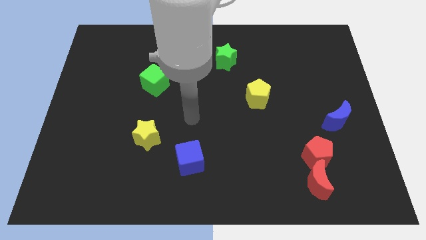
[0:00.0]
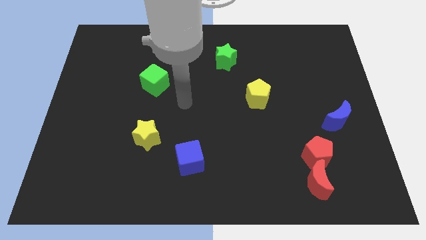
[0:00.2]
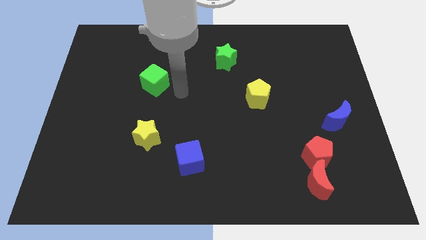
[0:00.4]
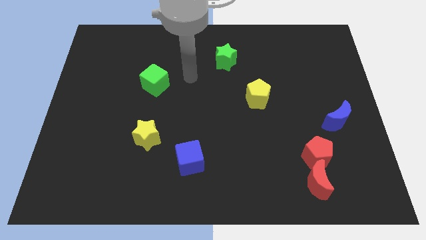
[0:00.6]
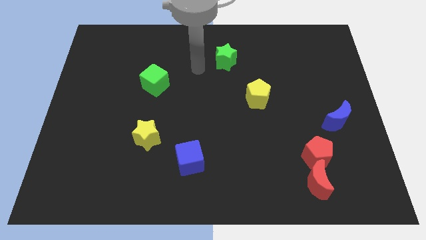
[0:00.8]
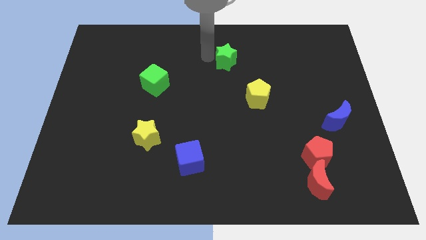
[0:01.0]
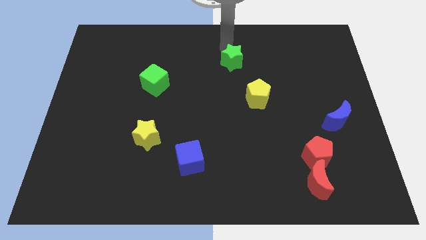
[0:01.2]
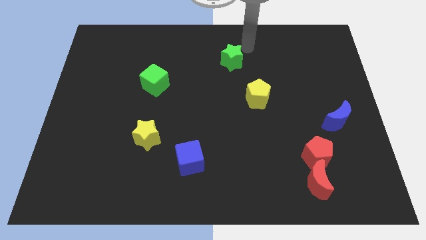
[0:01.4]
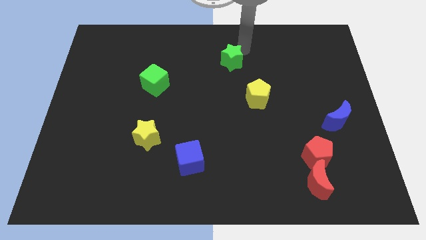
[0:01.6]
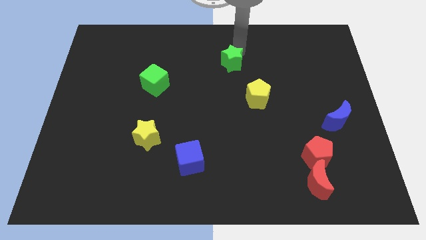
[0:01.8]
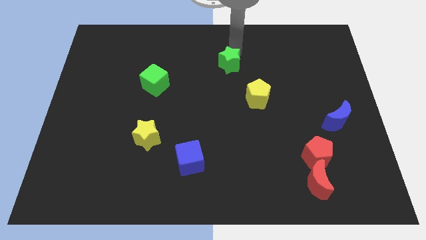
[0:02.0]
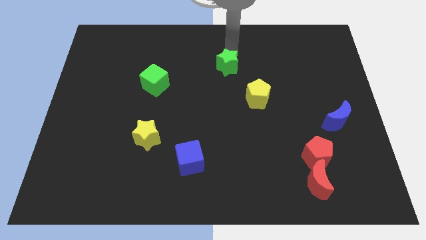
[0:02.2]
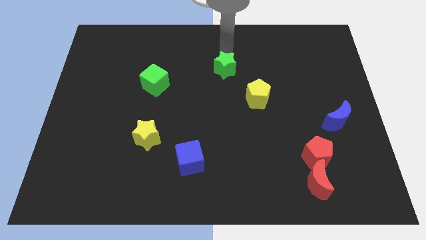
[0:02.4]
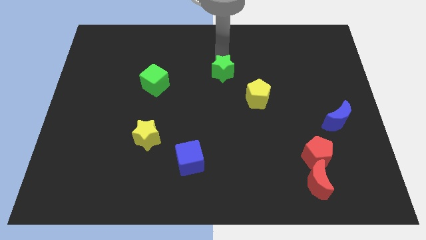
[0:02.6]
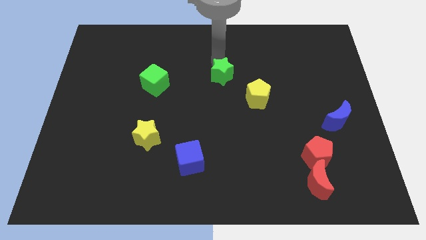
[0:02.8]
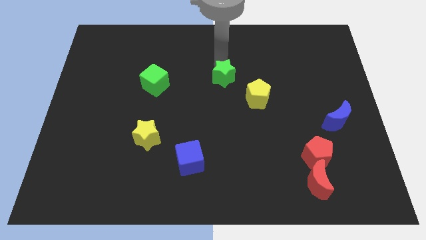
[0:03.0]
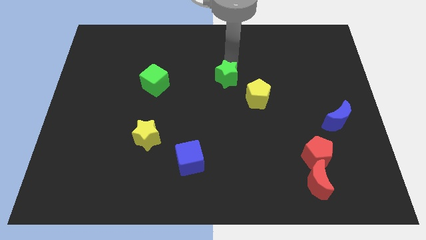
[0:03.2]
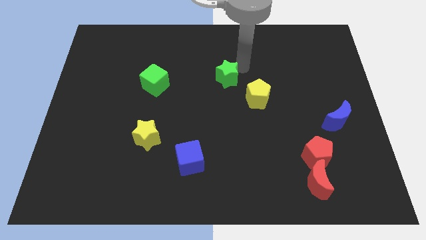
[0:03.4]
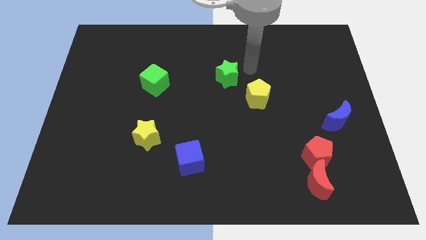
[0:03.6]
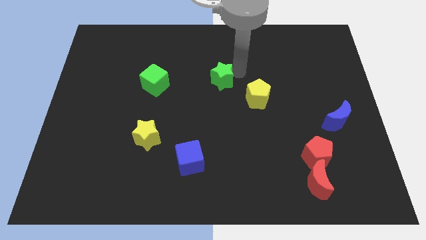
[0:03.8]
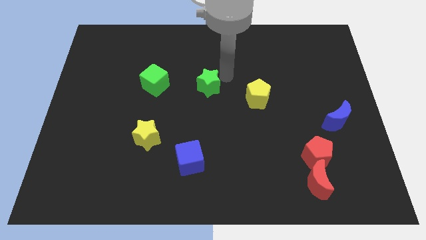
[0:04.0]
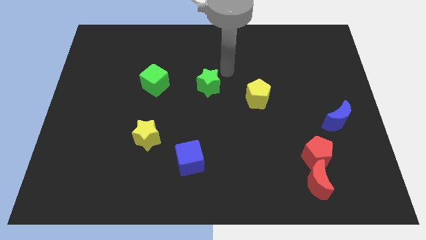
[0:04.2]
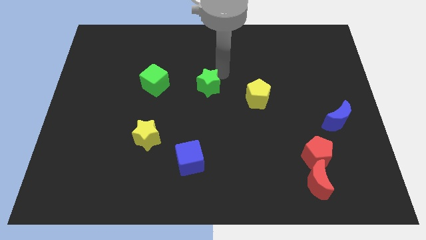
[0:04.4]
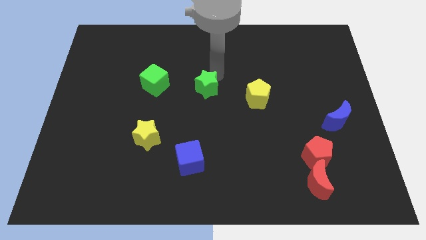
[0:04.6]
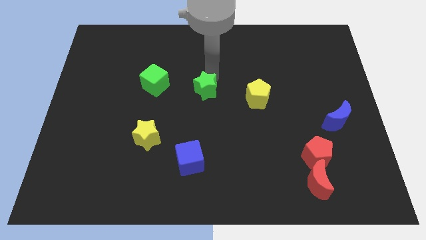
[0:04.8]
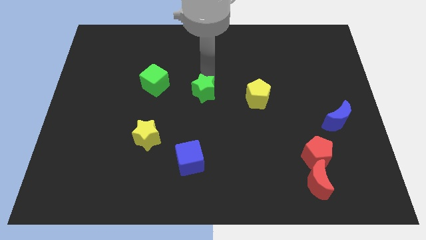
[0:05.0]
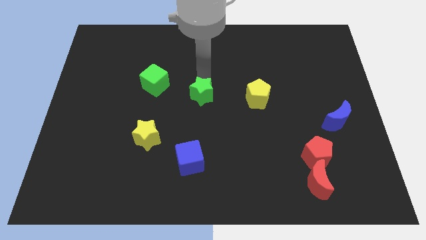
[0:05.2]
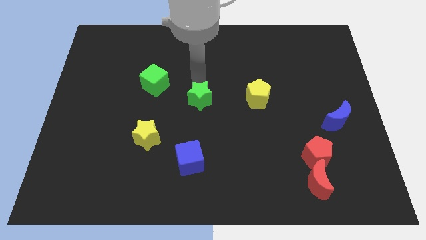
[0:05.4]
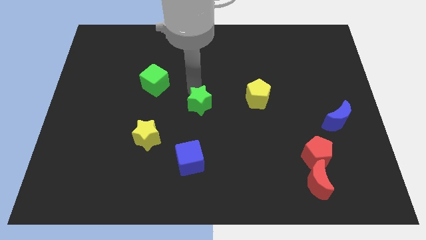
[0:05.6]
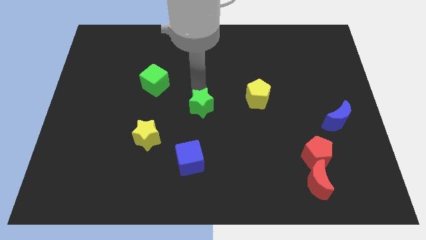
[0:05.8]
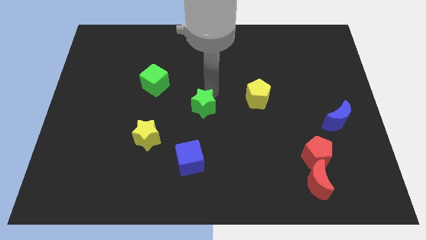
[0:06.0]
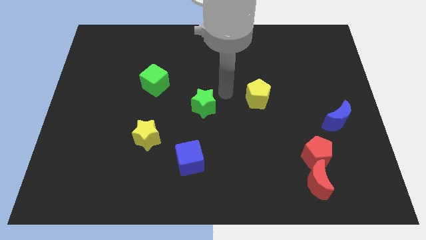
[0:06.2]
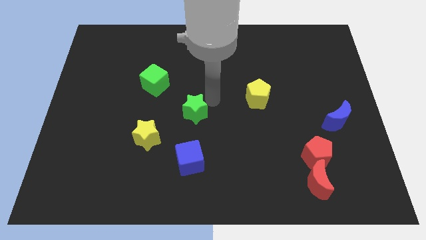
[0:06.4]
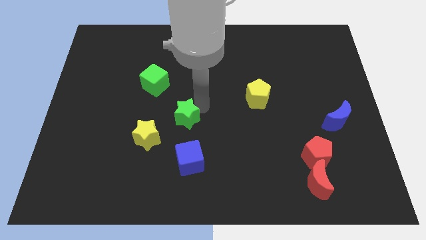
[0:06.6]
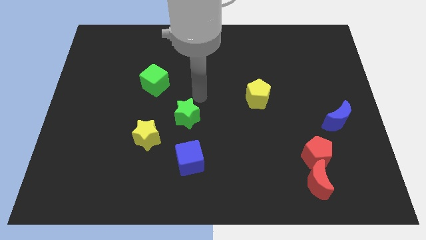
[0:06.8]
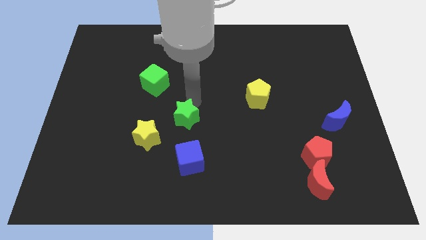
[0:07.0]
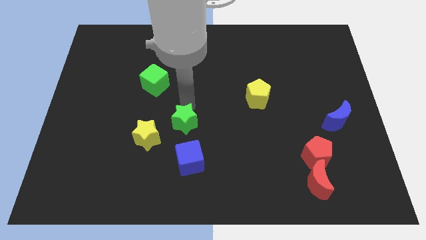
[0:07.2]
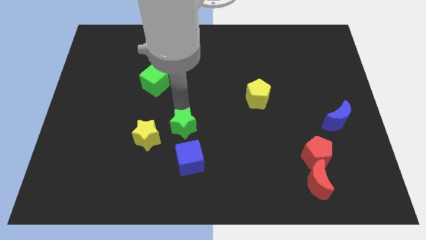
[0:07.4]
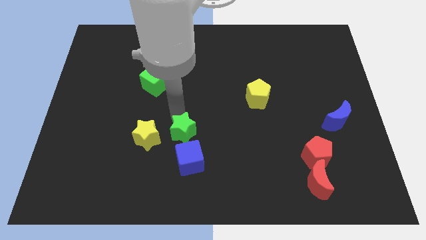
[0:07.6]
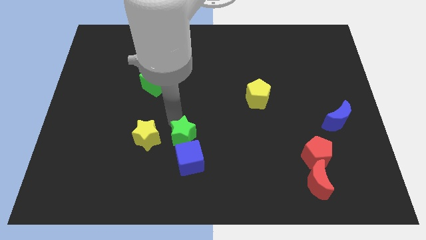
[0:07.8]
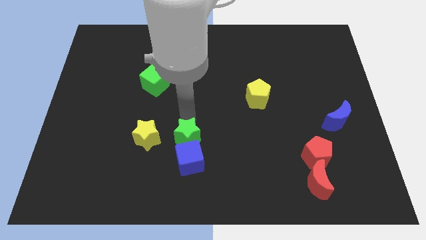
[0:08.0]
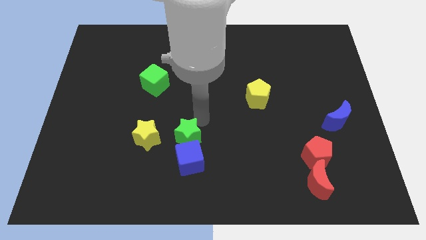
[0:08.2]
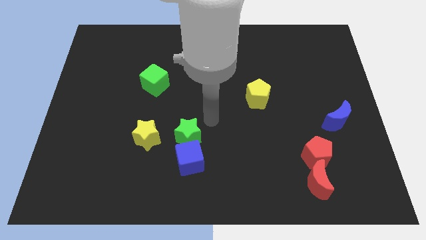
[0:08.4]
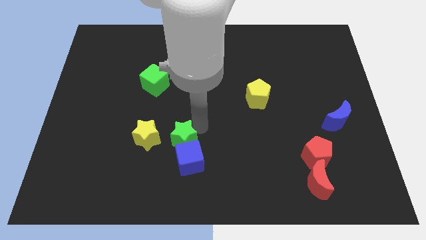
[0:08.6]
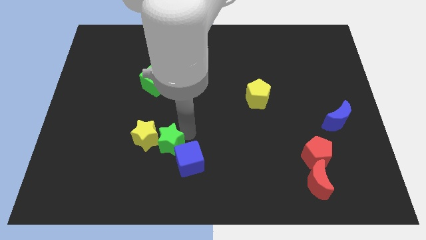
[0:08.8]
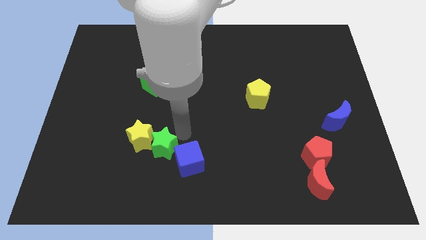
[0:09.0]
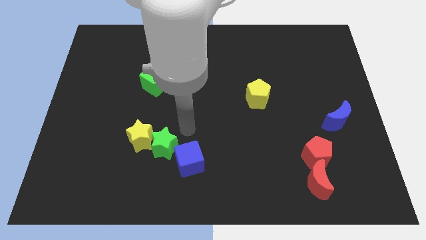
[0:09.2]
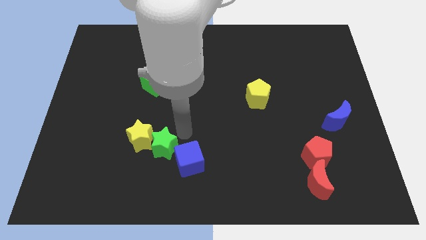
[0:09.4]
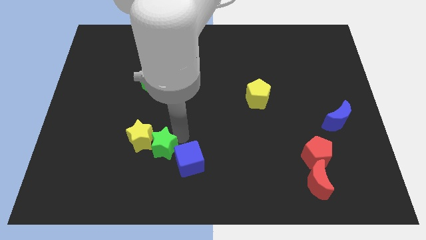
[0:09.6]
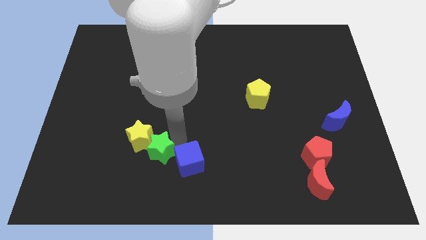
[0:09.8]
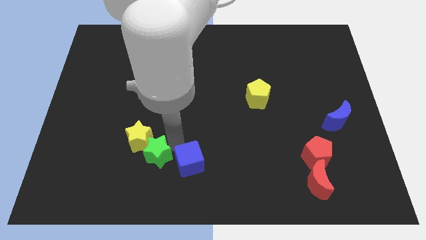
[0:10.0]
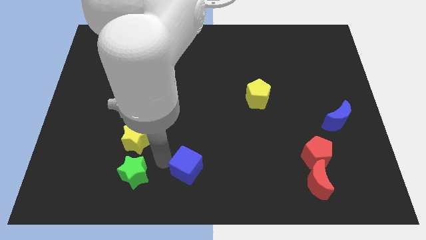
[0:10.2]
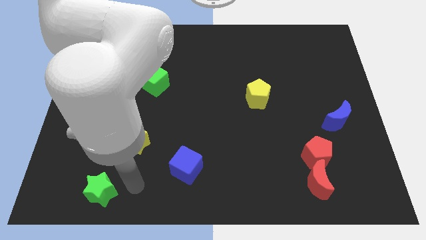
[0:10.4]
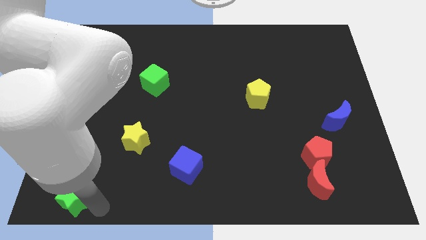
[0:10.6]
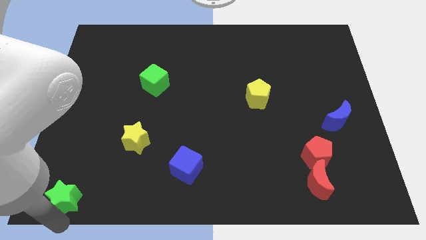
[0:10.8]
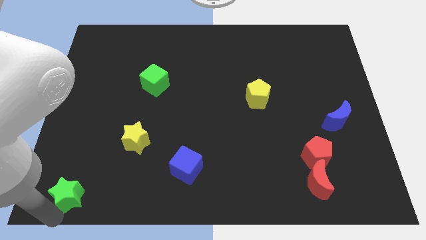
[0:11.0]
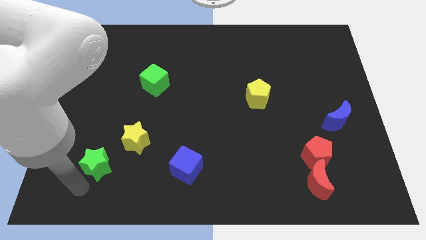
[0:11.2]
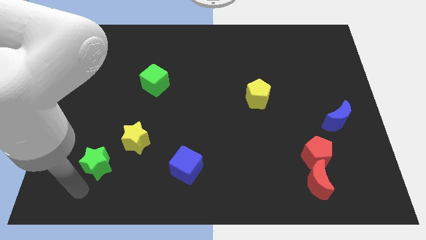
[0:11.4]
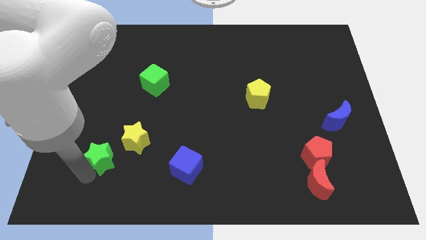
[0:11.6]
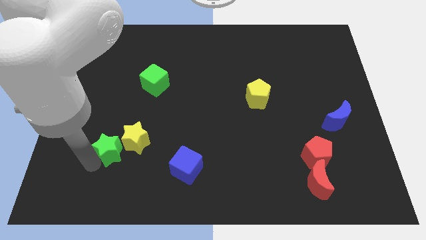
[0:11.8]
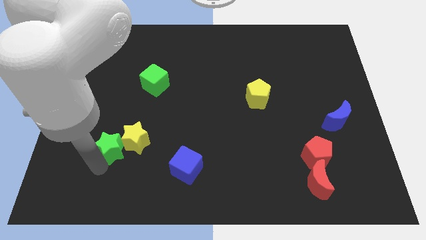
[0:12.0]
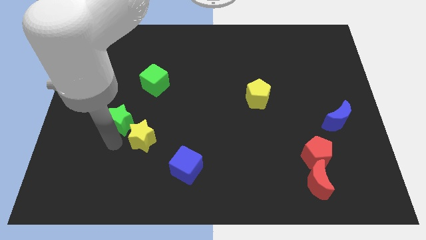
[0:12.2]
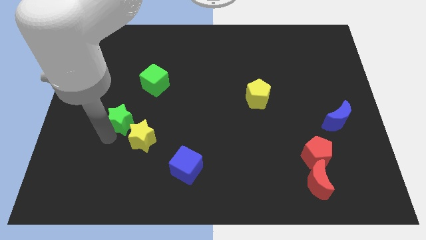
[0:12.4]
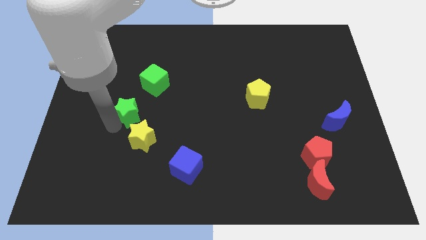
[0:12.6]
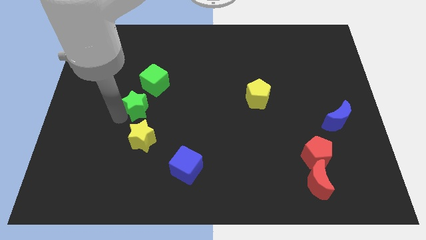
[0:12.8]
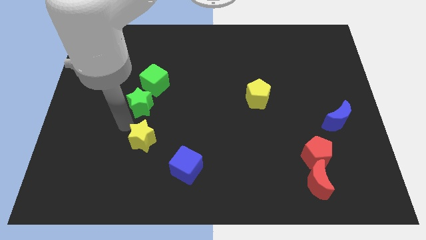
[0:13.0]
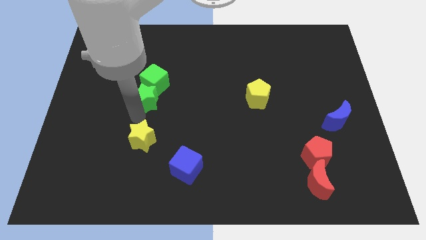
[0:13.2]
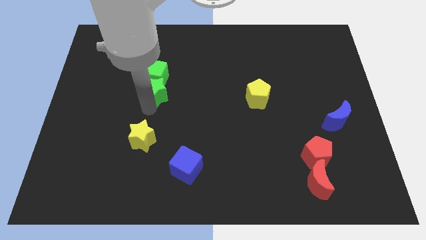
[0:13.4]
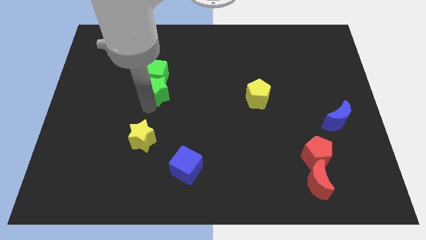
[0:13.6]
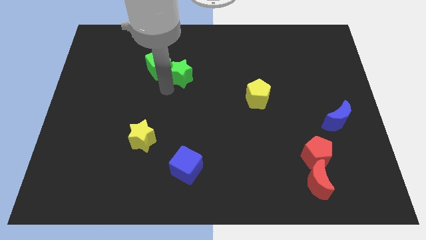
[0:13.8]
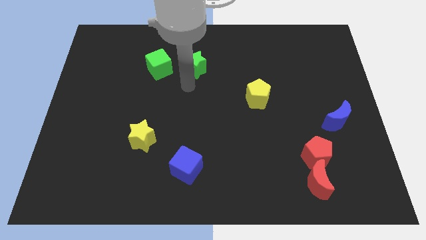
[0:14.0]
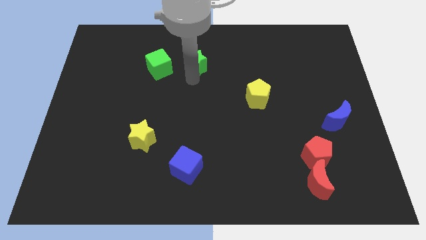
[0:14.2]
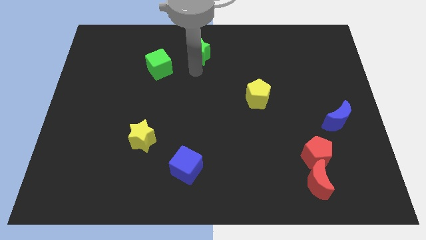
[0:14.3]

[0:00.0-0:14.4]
put the green star to the towards your base

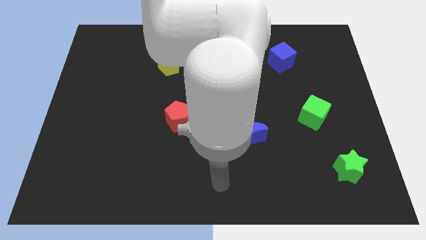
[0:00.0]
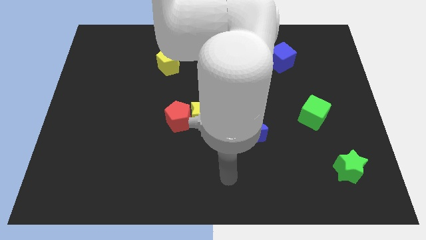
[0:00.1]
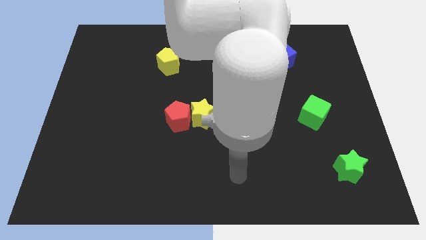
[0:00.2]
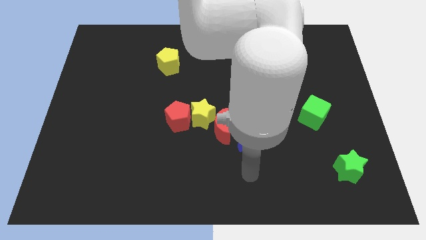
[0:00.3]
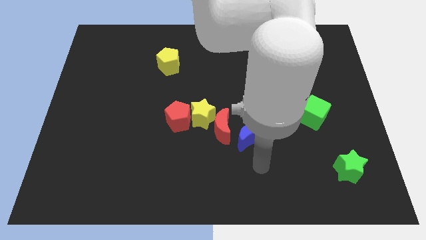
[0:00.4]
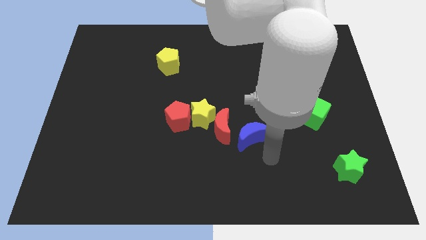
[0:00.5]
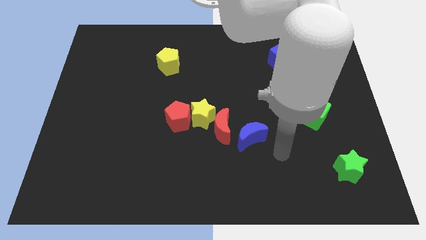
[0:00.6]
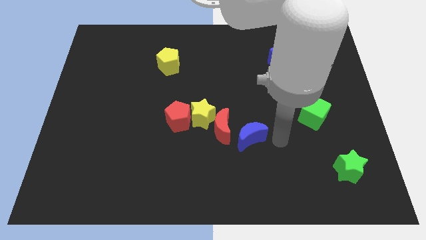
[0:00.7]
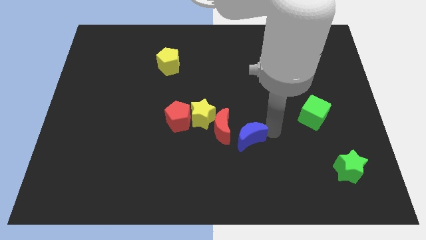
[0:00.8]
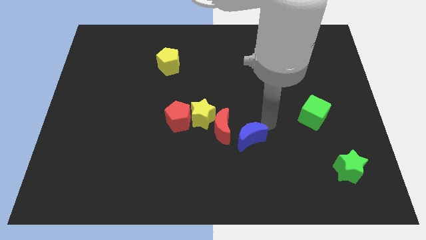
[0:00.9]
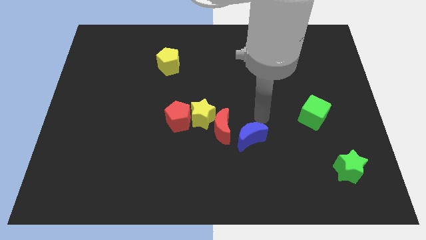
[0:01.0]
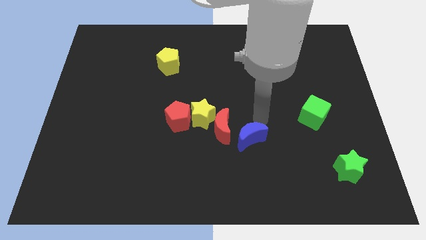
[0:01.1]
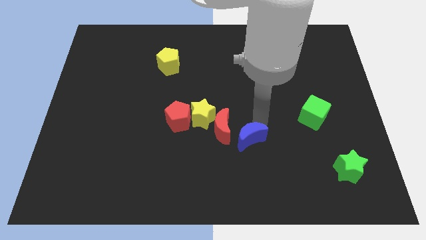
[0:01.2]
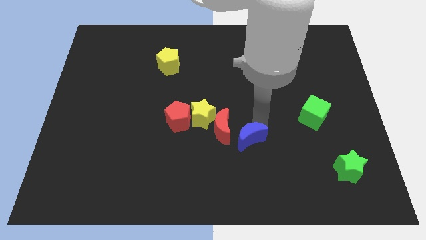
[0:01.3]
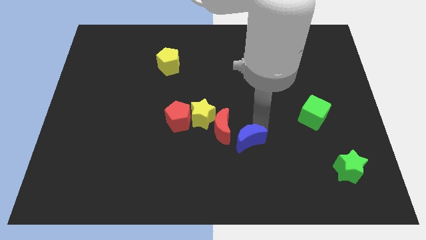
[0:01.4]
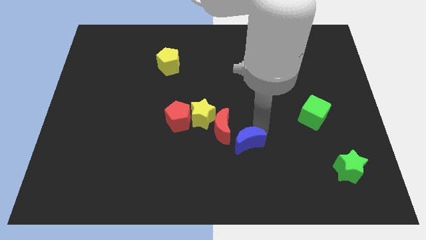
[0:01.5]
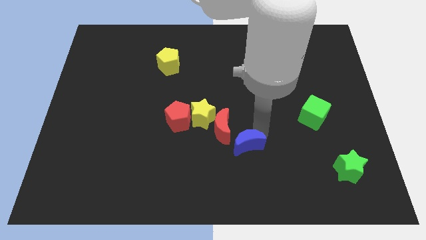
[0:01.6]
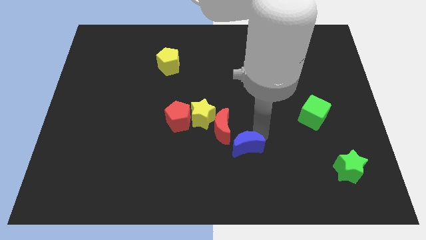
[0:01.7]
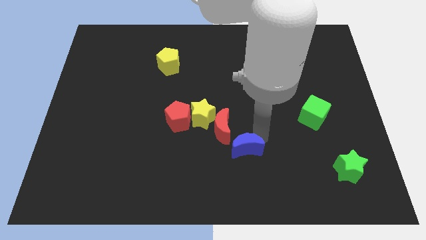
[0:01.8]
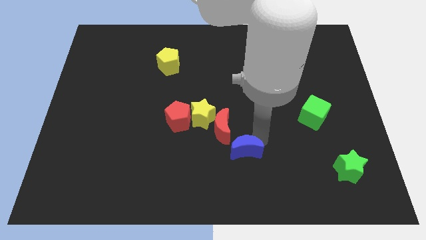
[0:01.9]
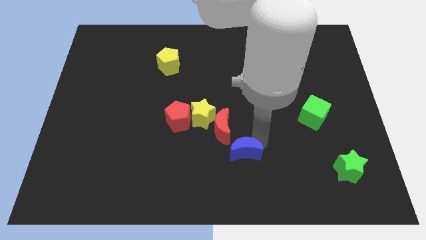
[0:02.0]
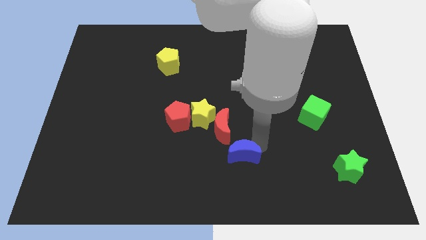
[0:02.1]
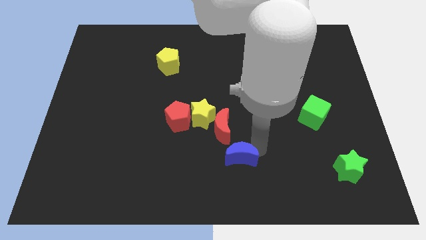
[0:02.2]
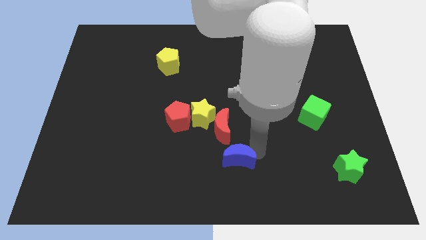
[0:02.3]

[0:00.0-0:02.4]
push the blue moon to the bottom side
